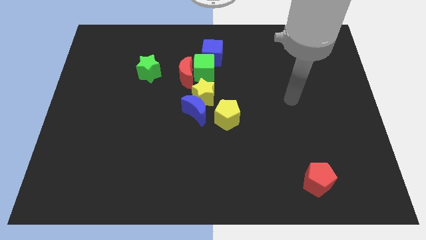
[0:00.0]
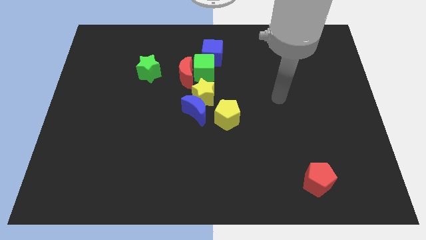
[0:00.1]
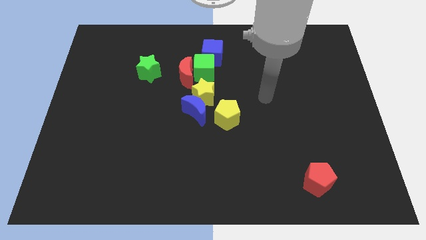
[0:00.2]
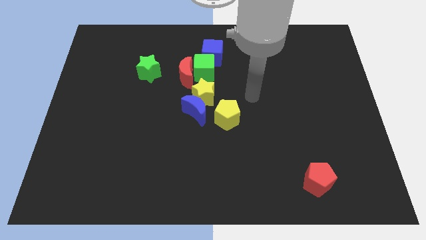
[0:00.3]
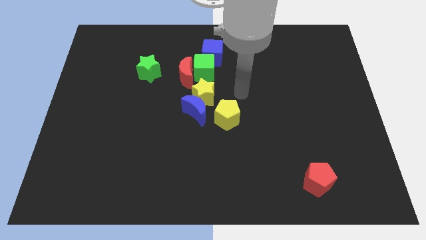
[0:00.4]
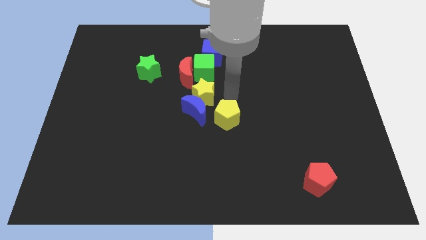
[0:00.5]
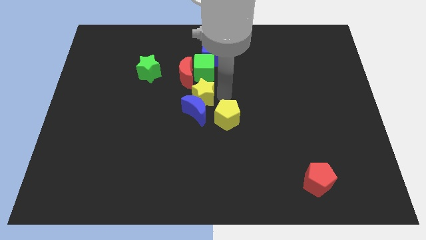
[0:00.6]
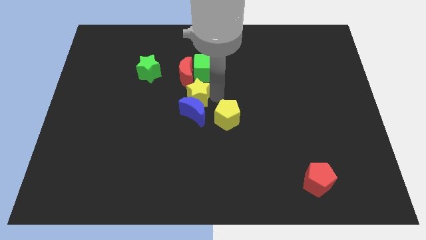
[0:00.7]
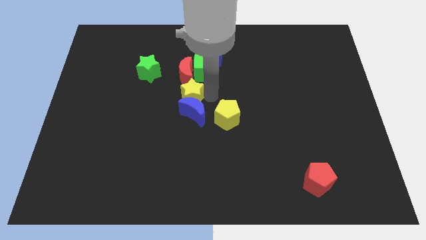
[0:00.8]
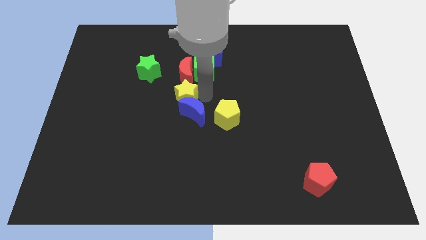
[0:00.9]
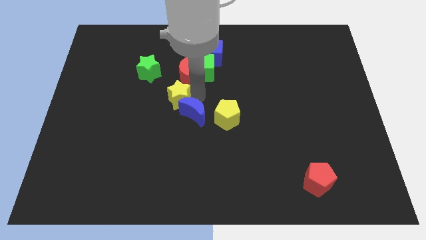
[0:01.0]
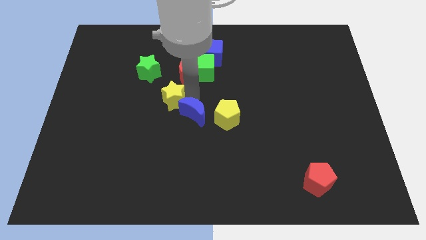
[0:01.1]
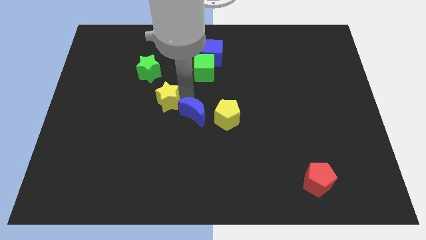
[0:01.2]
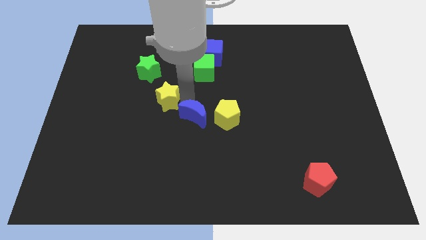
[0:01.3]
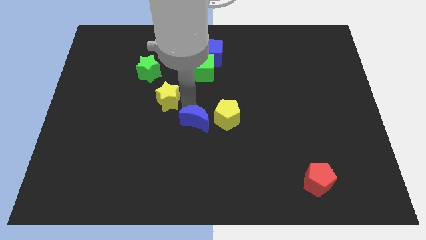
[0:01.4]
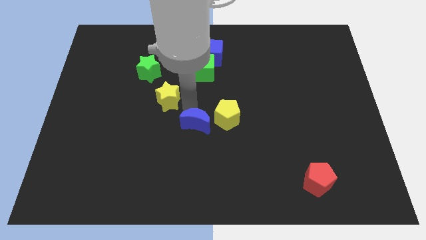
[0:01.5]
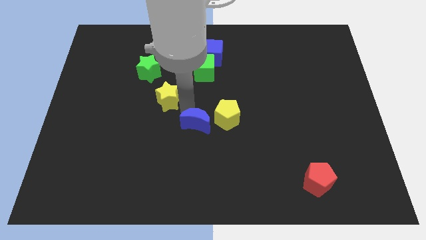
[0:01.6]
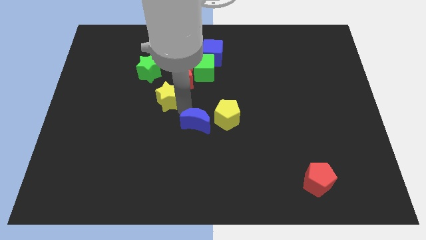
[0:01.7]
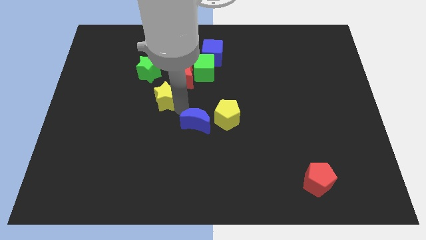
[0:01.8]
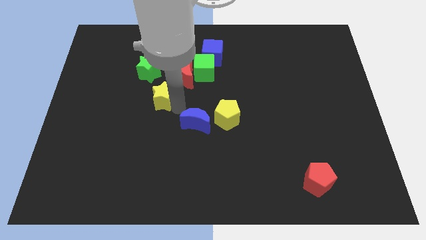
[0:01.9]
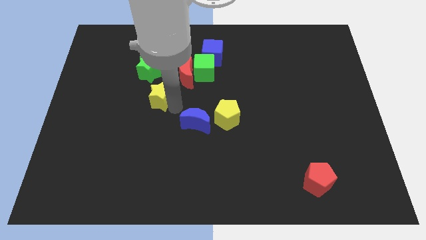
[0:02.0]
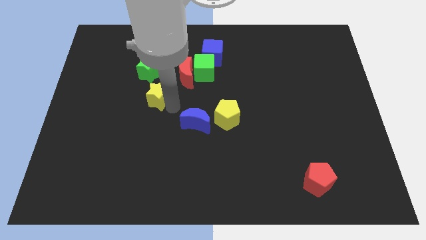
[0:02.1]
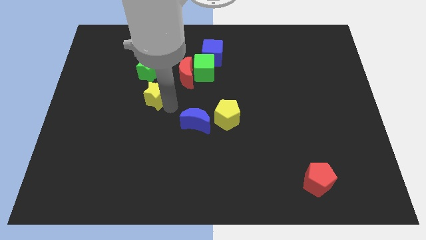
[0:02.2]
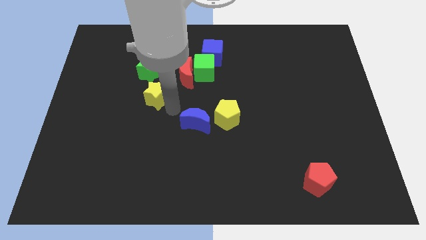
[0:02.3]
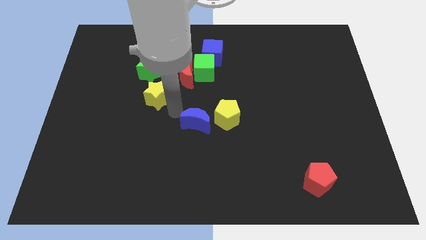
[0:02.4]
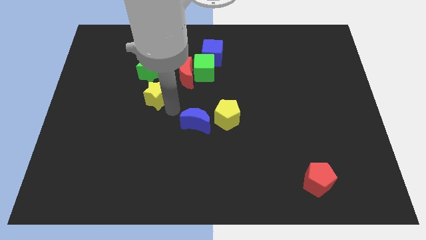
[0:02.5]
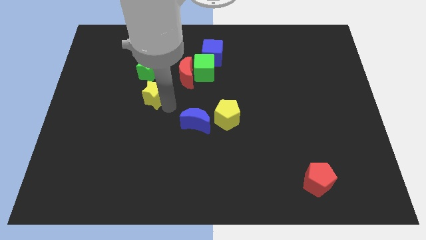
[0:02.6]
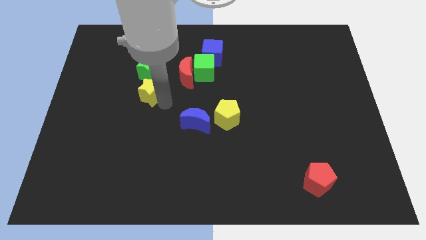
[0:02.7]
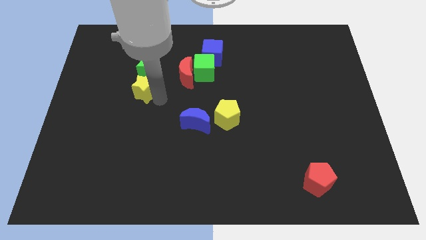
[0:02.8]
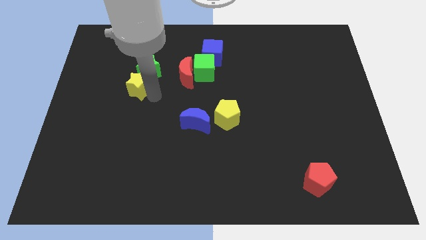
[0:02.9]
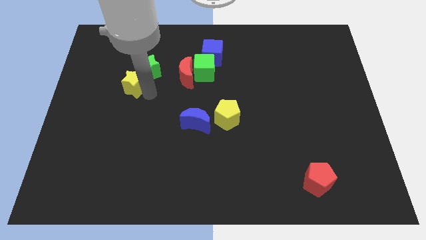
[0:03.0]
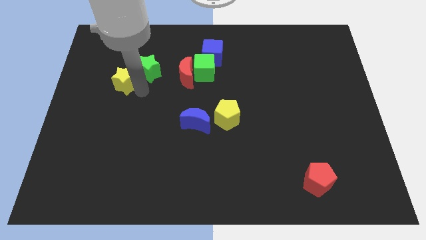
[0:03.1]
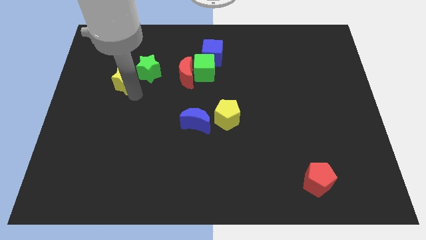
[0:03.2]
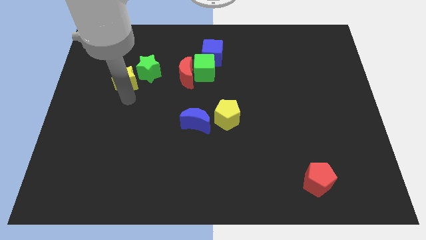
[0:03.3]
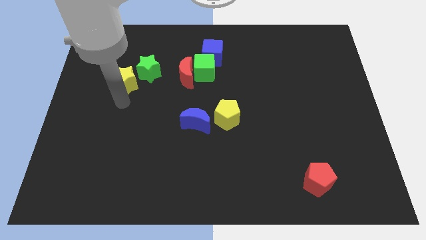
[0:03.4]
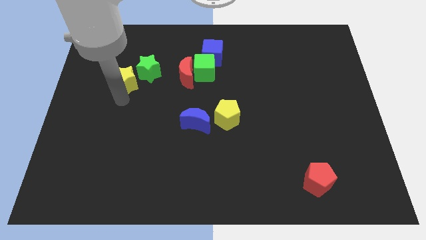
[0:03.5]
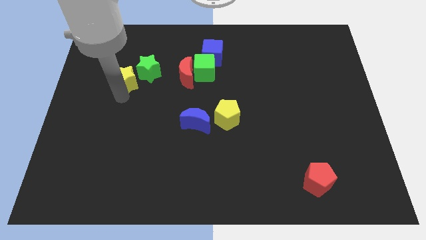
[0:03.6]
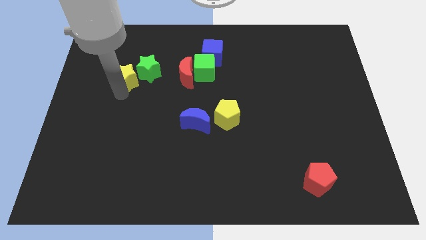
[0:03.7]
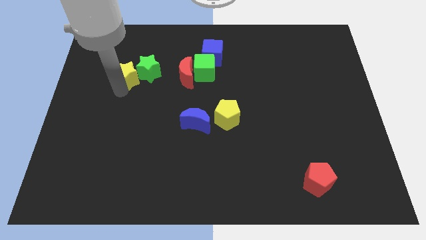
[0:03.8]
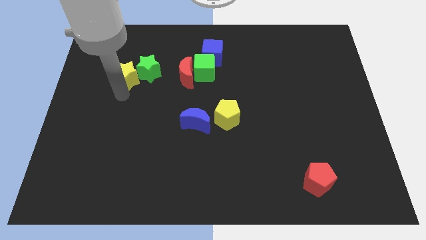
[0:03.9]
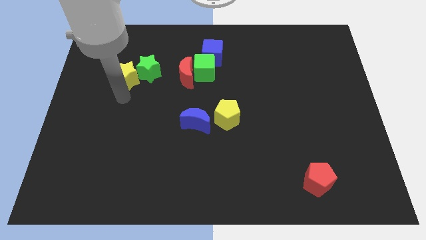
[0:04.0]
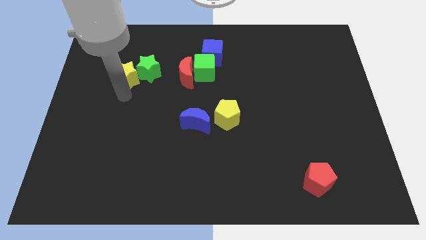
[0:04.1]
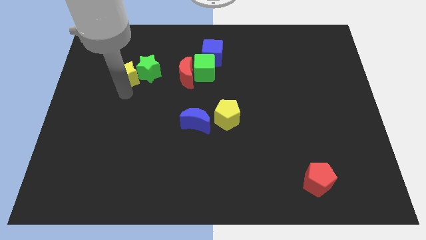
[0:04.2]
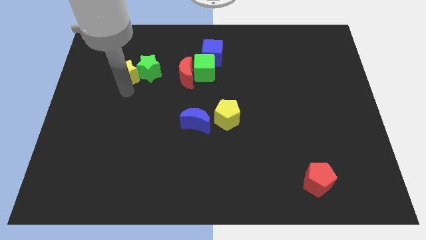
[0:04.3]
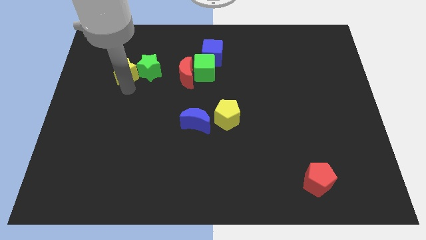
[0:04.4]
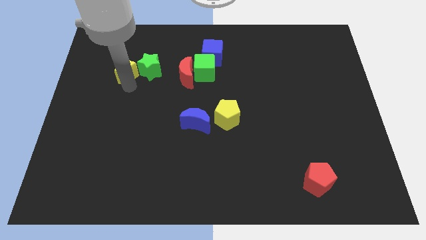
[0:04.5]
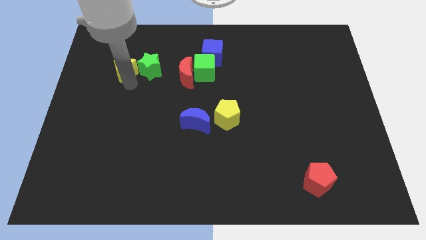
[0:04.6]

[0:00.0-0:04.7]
push the yellow star diagonally up and to the left of the green star

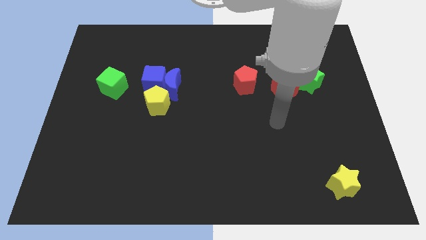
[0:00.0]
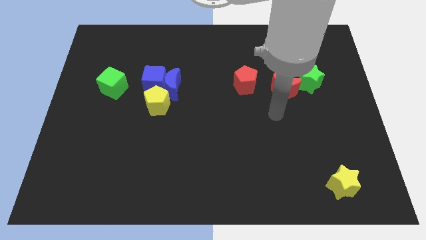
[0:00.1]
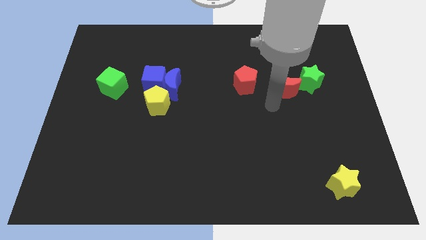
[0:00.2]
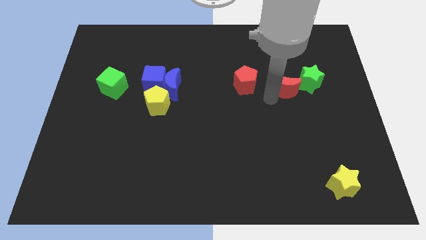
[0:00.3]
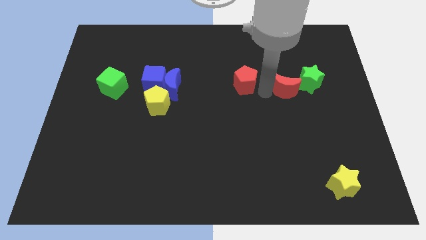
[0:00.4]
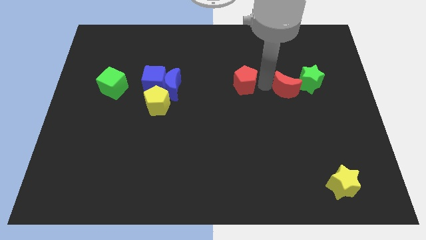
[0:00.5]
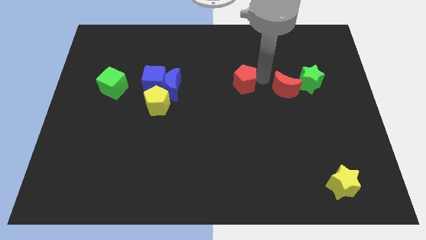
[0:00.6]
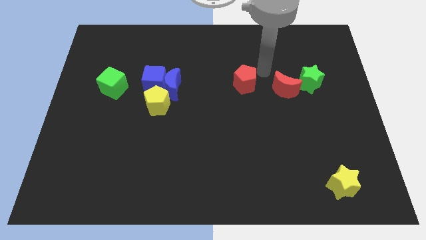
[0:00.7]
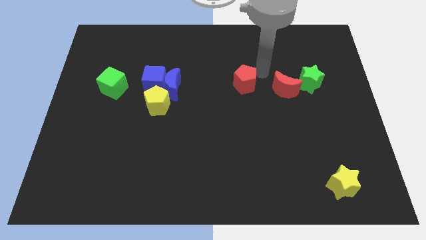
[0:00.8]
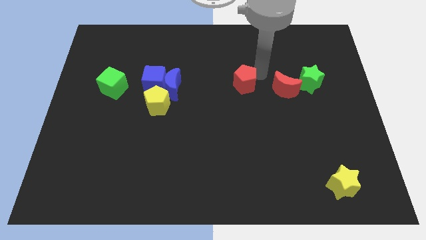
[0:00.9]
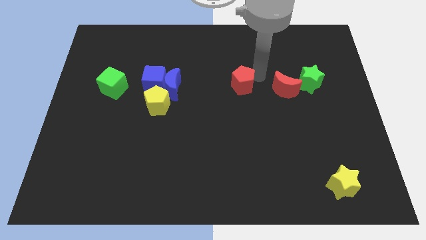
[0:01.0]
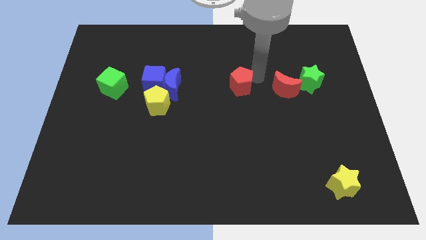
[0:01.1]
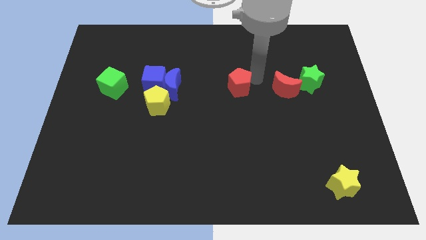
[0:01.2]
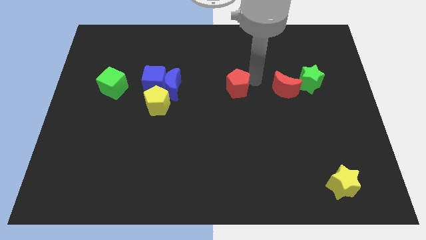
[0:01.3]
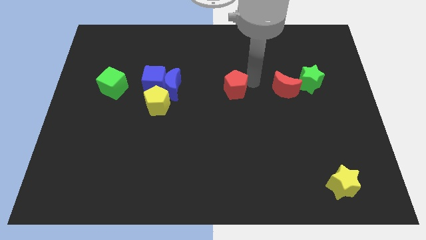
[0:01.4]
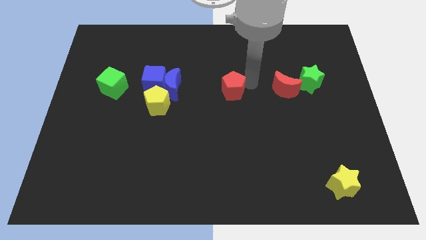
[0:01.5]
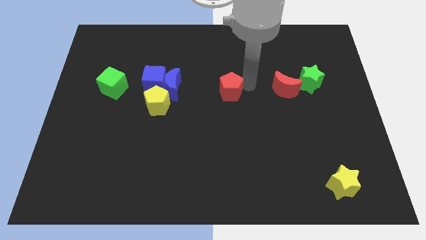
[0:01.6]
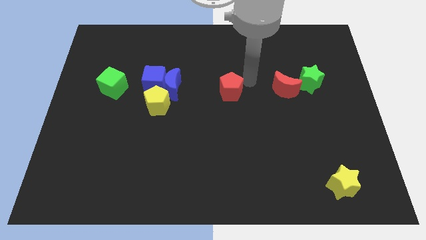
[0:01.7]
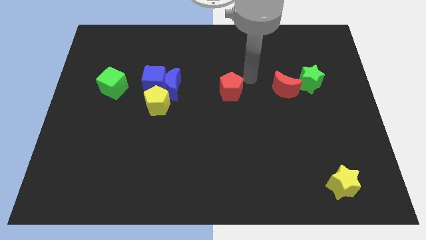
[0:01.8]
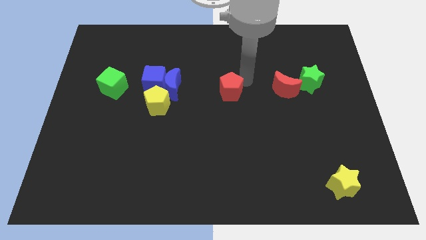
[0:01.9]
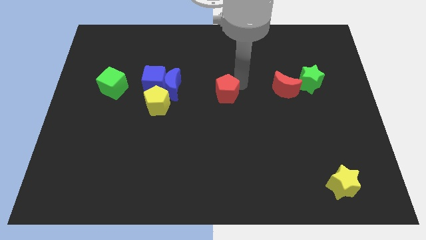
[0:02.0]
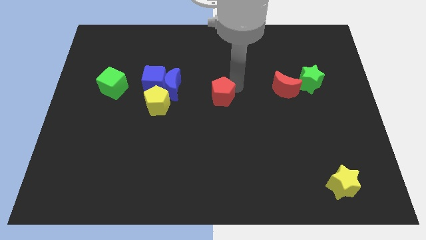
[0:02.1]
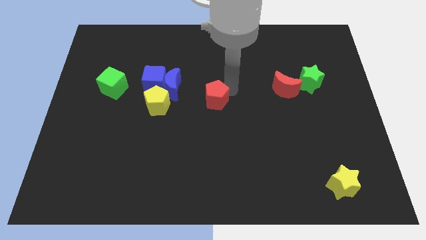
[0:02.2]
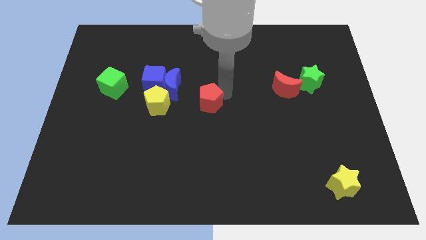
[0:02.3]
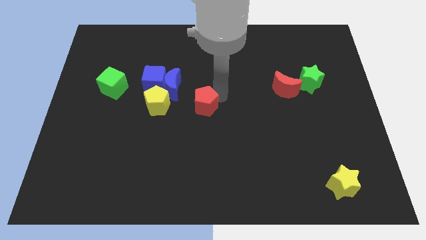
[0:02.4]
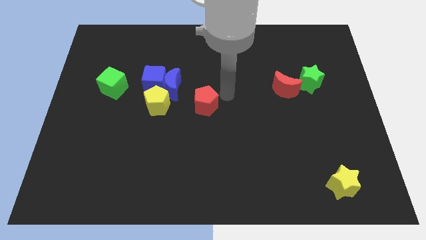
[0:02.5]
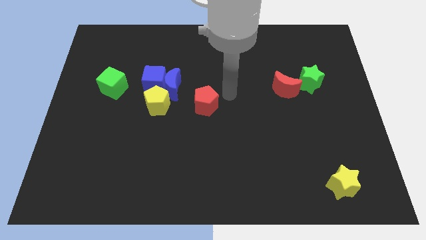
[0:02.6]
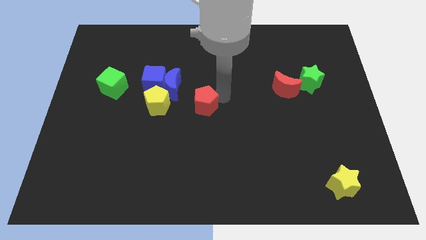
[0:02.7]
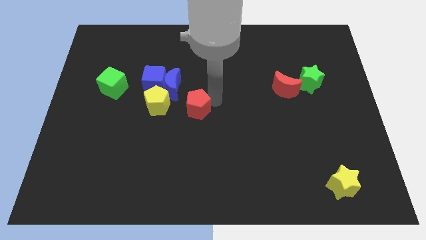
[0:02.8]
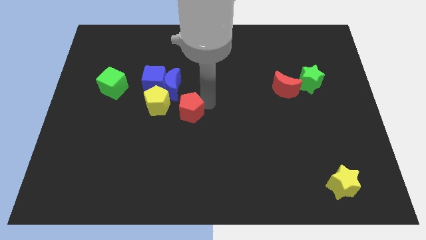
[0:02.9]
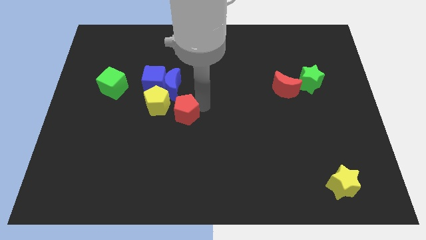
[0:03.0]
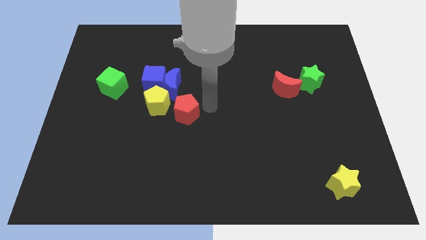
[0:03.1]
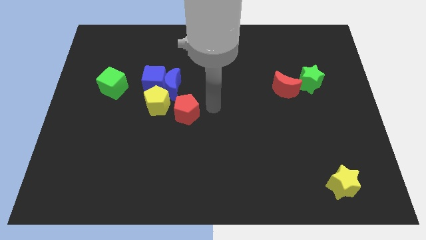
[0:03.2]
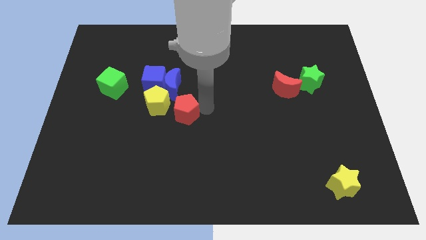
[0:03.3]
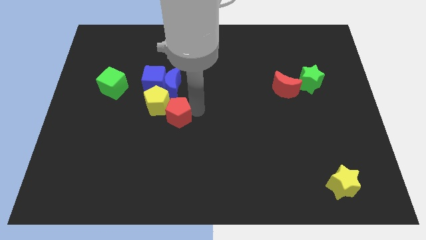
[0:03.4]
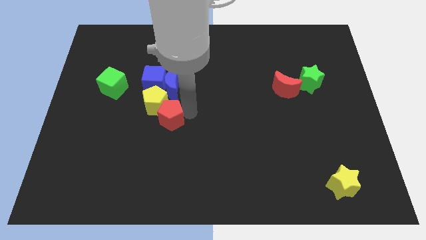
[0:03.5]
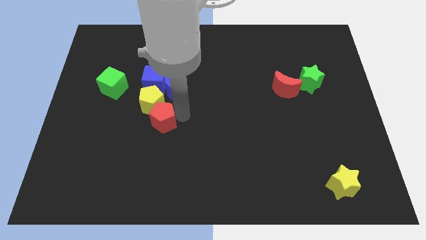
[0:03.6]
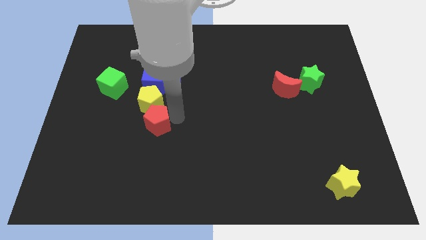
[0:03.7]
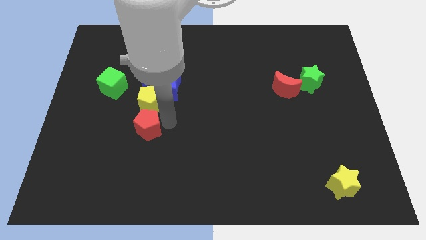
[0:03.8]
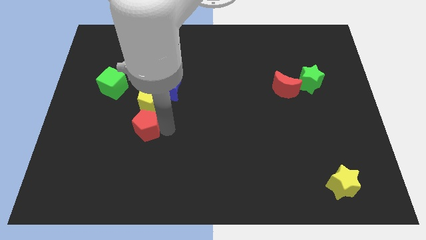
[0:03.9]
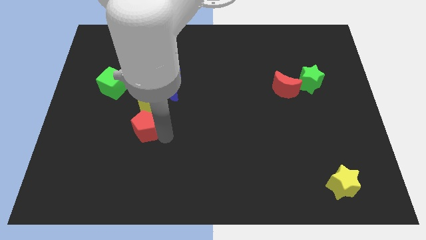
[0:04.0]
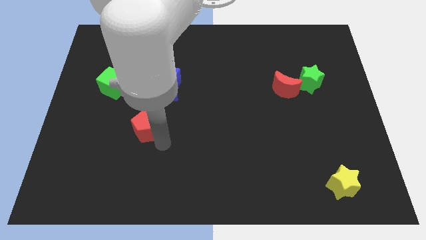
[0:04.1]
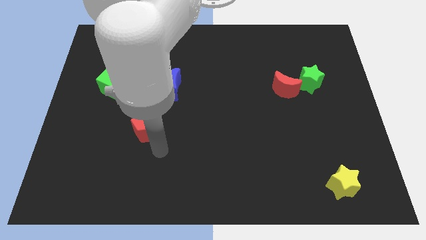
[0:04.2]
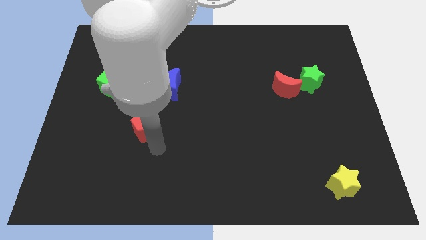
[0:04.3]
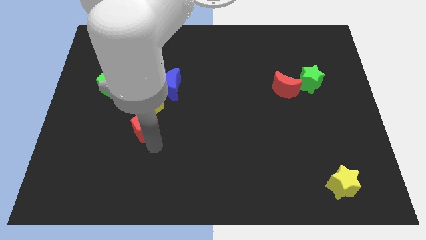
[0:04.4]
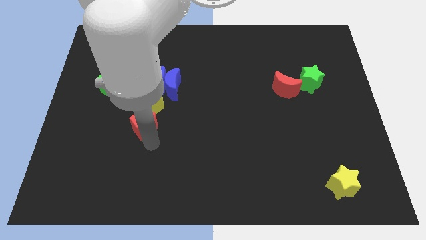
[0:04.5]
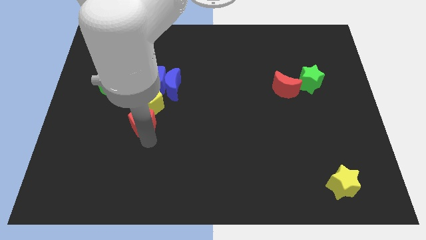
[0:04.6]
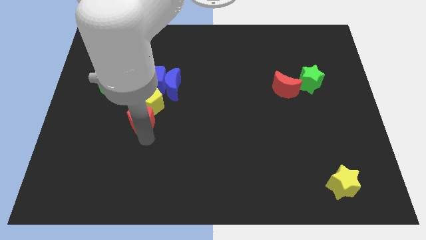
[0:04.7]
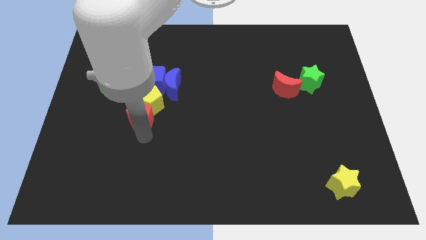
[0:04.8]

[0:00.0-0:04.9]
push the red pentagon to the bottom right side of the green cube
